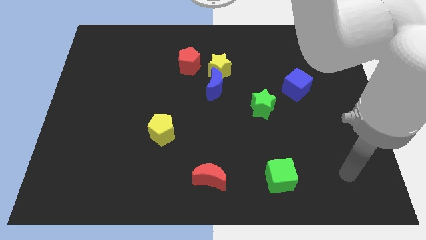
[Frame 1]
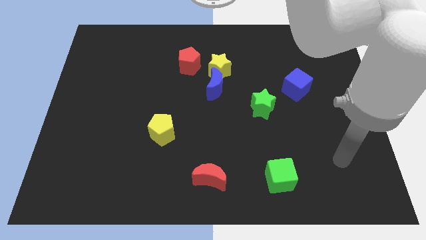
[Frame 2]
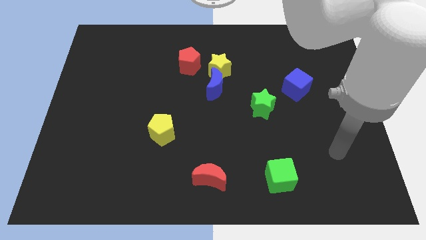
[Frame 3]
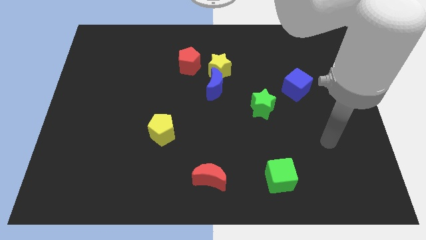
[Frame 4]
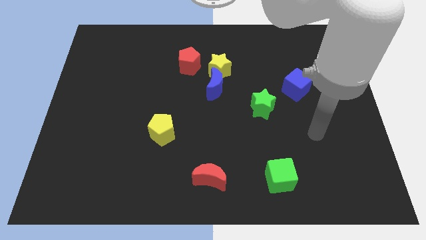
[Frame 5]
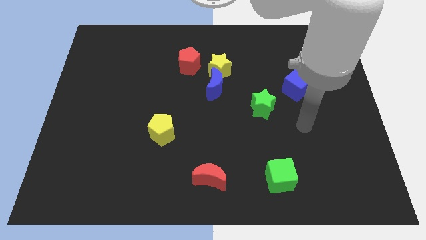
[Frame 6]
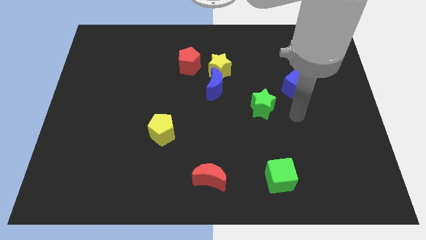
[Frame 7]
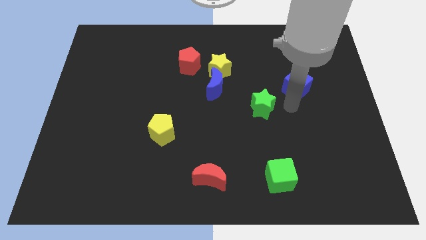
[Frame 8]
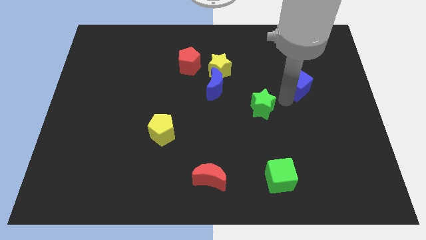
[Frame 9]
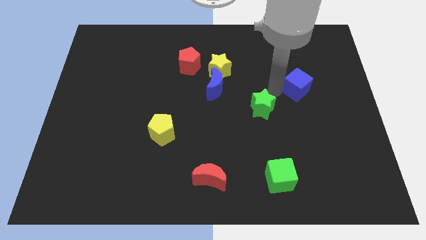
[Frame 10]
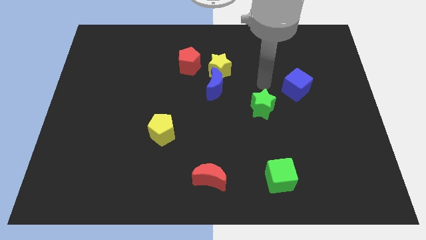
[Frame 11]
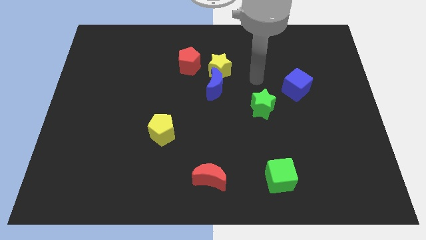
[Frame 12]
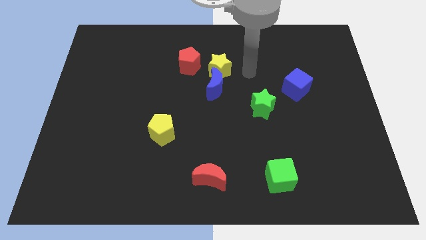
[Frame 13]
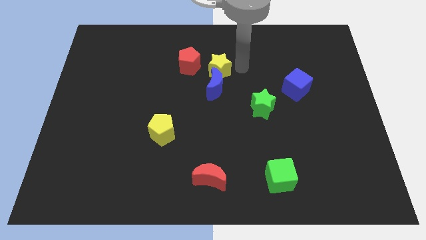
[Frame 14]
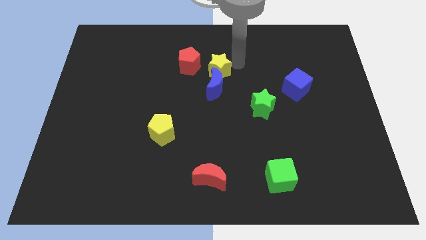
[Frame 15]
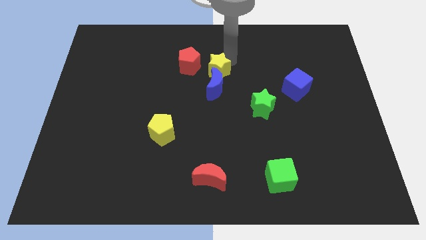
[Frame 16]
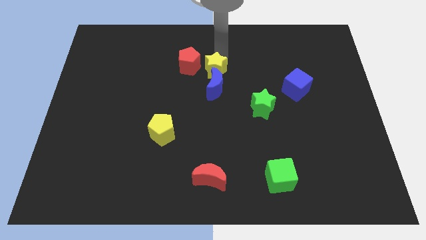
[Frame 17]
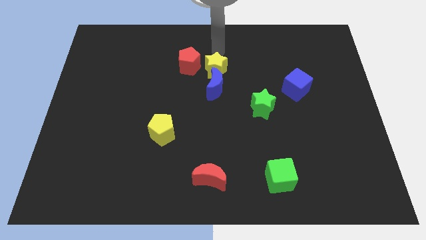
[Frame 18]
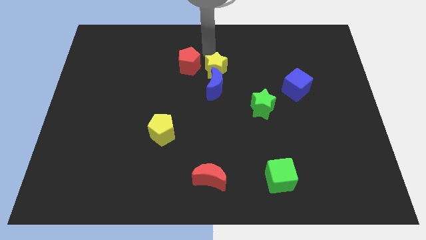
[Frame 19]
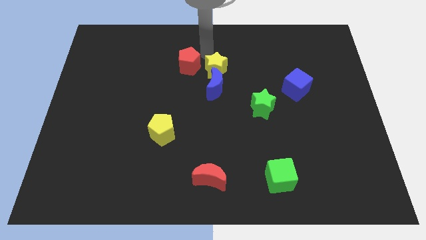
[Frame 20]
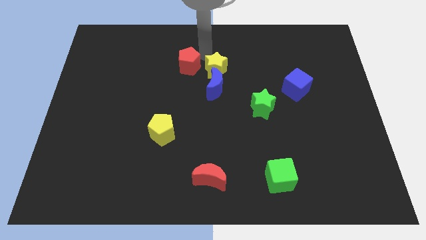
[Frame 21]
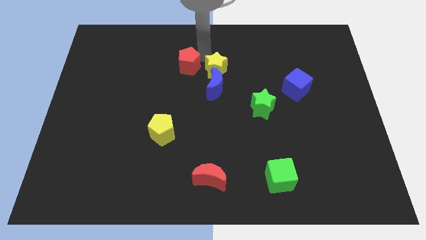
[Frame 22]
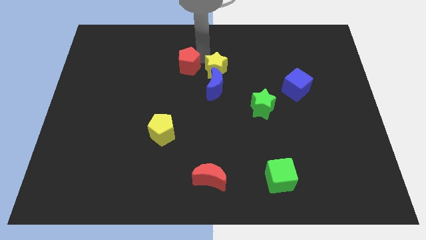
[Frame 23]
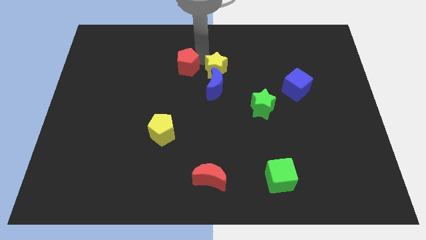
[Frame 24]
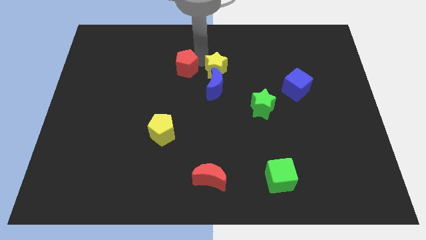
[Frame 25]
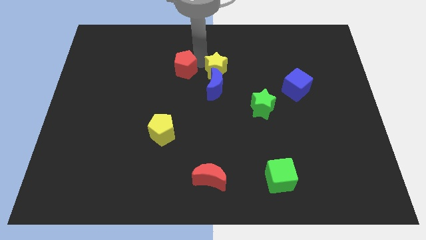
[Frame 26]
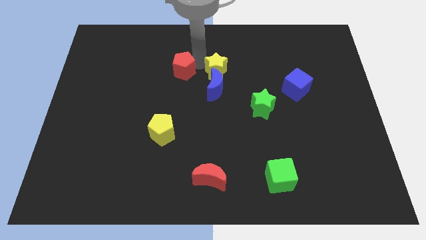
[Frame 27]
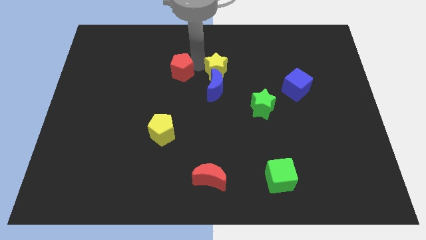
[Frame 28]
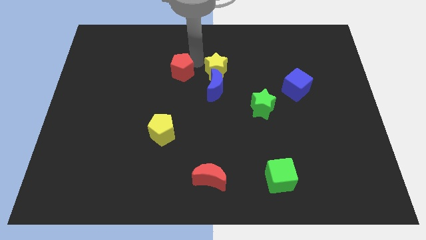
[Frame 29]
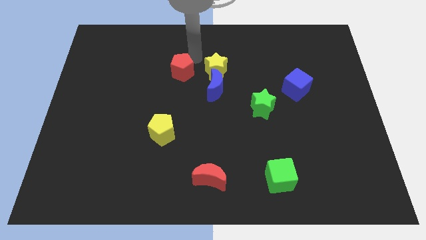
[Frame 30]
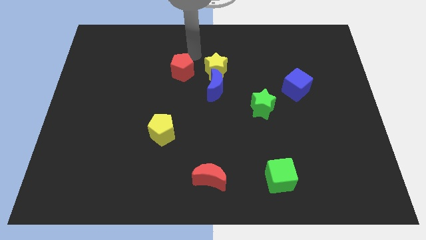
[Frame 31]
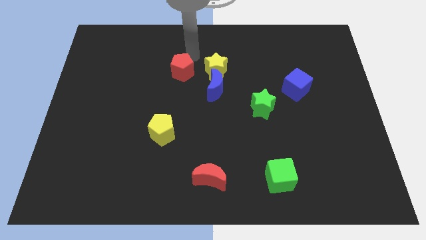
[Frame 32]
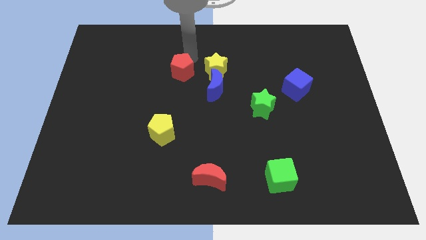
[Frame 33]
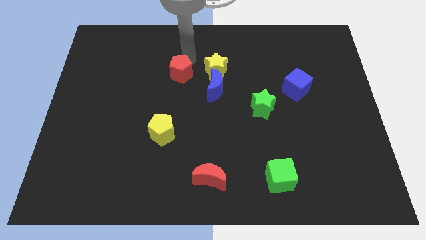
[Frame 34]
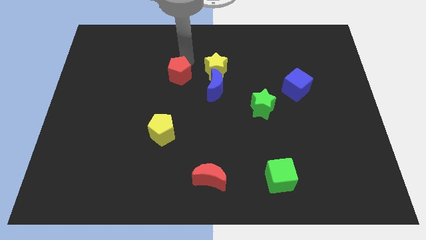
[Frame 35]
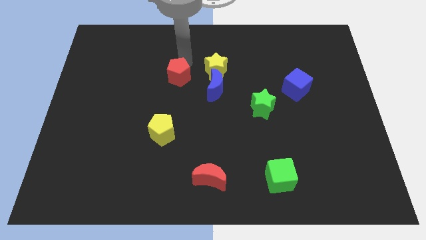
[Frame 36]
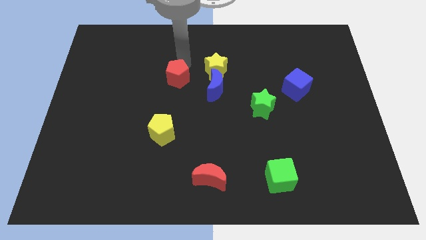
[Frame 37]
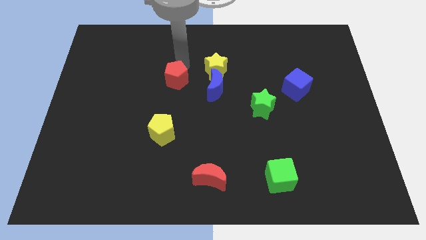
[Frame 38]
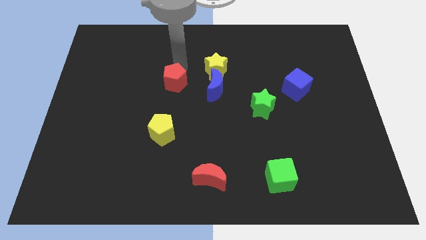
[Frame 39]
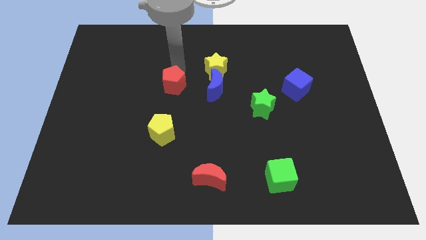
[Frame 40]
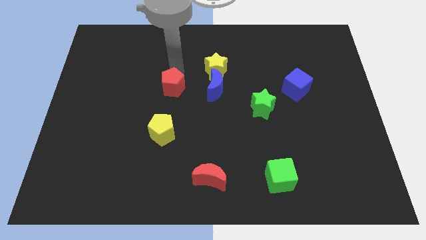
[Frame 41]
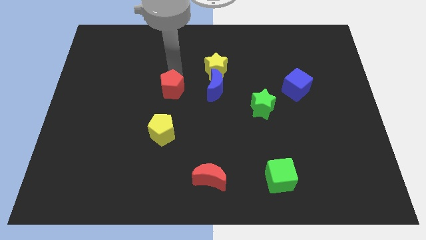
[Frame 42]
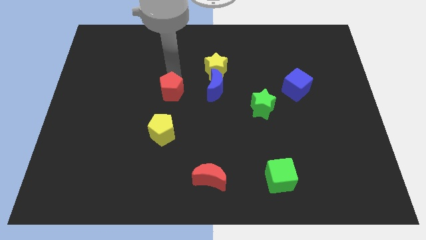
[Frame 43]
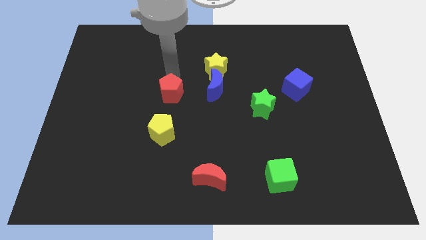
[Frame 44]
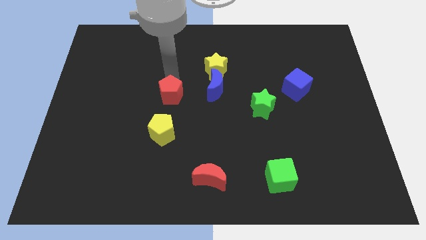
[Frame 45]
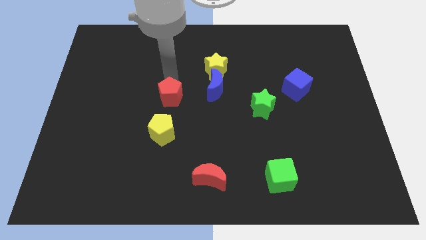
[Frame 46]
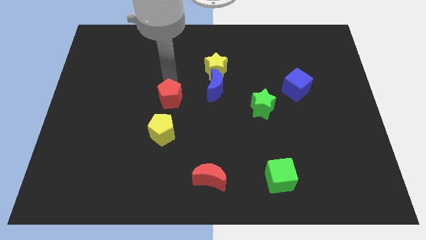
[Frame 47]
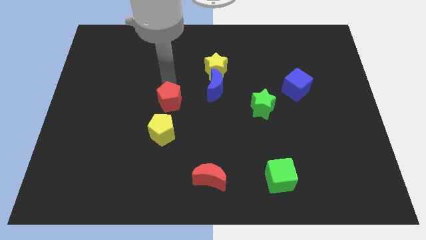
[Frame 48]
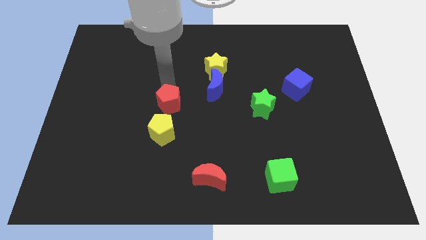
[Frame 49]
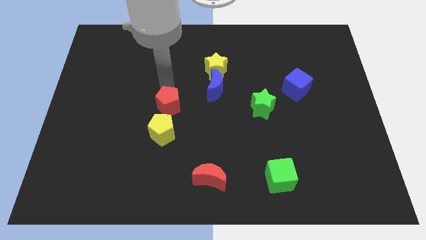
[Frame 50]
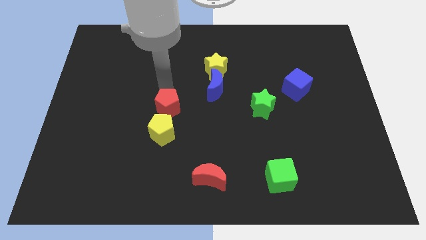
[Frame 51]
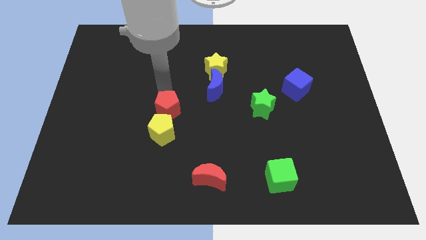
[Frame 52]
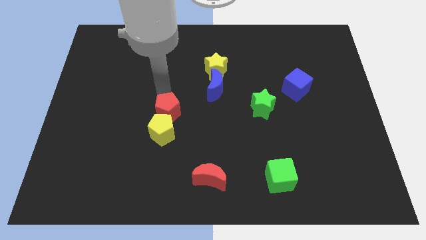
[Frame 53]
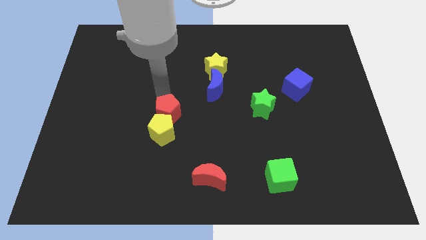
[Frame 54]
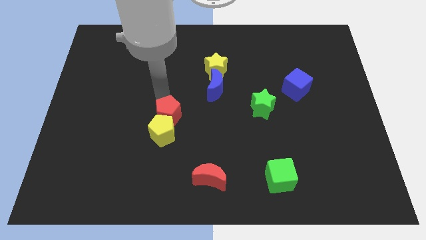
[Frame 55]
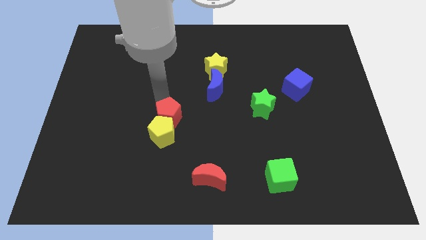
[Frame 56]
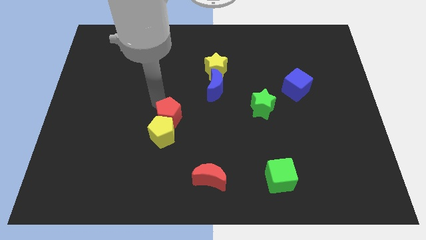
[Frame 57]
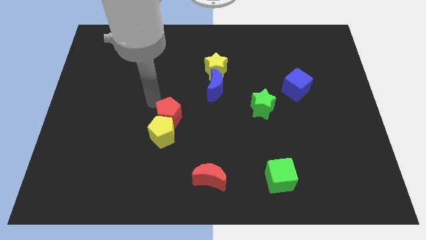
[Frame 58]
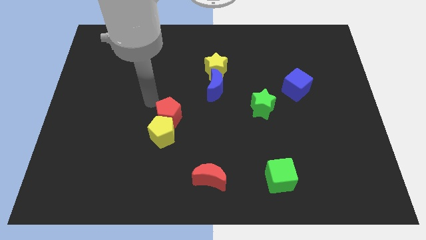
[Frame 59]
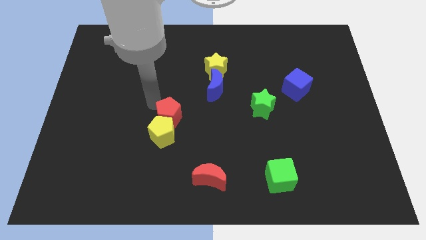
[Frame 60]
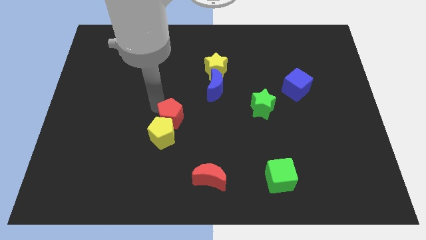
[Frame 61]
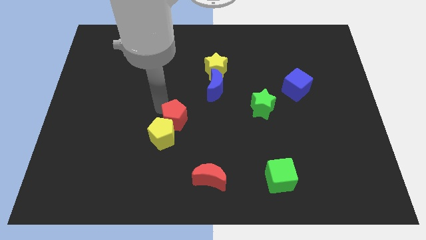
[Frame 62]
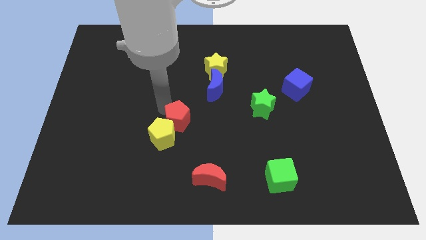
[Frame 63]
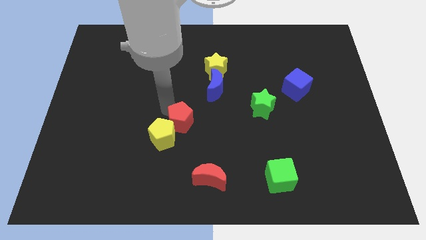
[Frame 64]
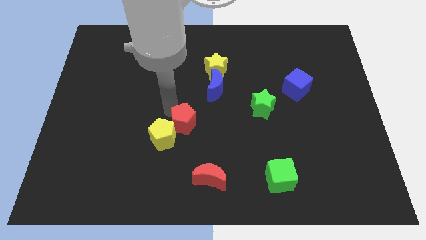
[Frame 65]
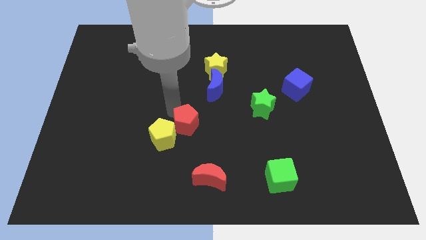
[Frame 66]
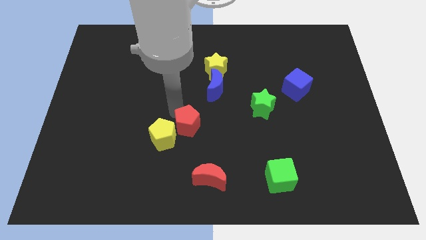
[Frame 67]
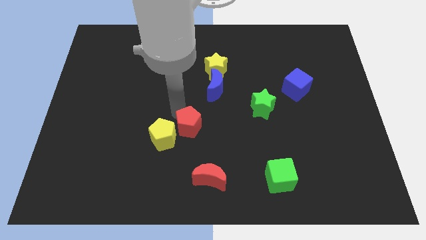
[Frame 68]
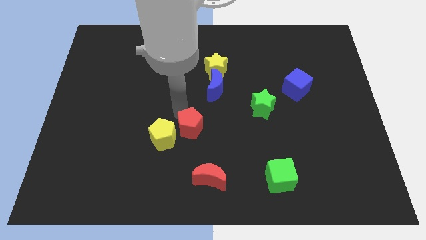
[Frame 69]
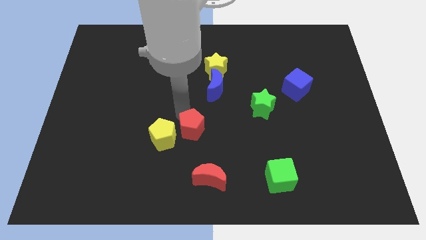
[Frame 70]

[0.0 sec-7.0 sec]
slide the red pentagon down

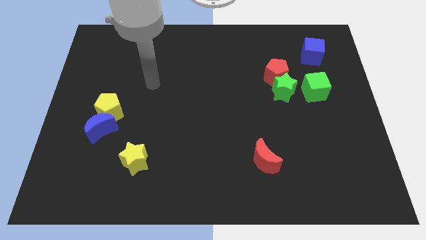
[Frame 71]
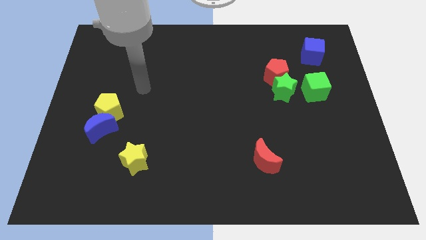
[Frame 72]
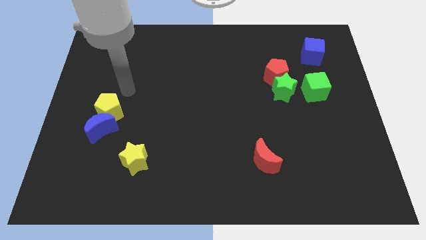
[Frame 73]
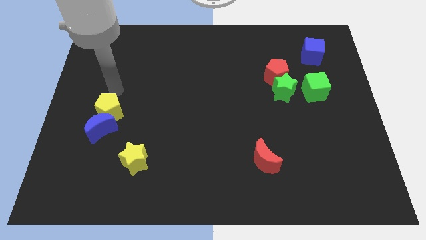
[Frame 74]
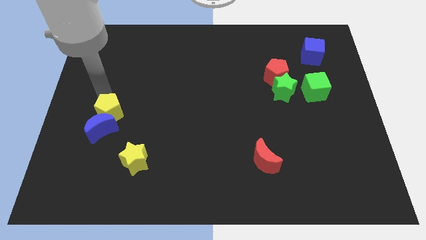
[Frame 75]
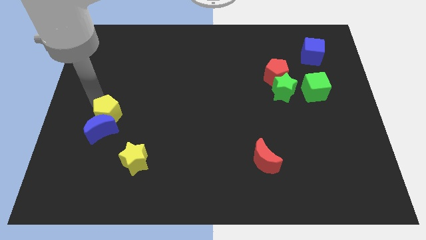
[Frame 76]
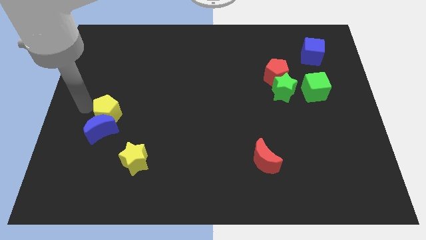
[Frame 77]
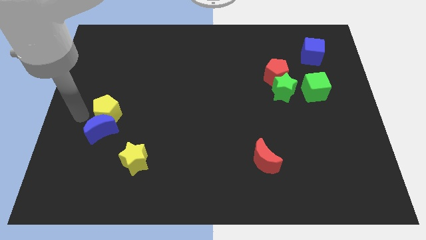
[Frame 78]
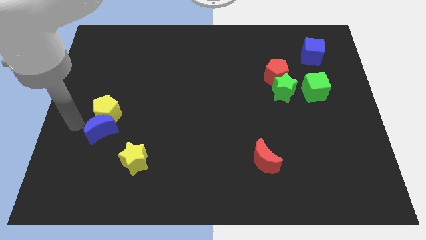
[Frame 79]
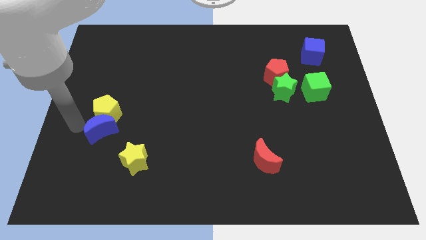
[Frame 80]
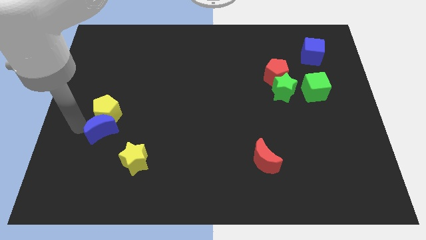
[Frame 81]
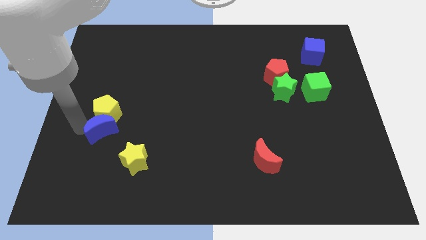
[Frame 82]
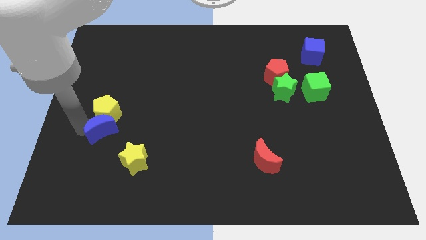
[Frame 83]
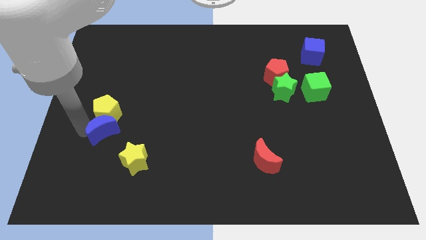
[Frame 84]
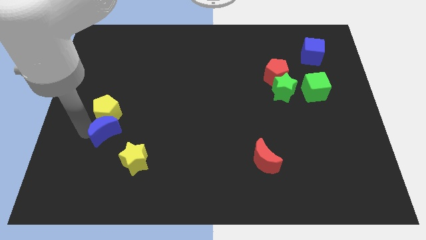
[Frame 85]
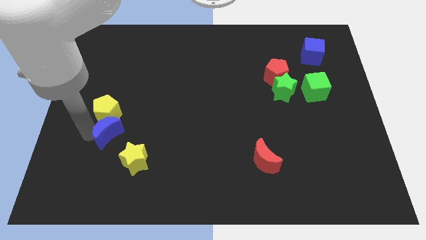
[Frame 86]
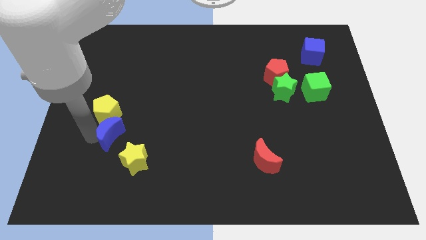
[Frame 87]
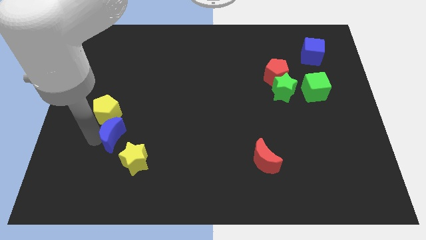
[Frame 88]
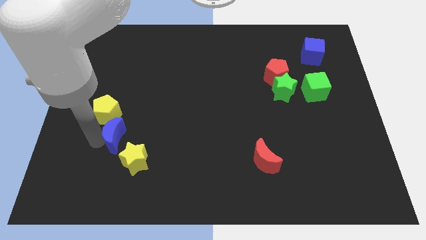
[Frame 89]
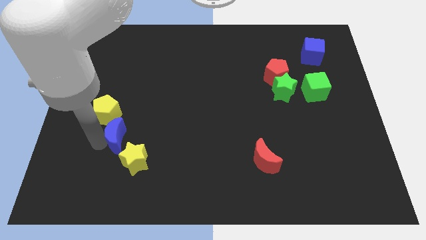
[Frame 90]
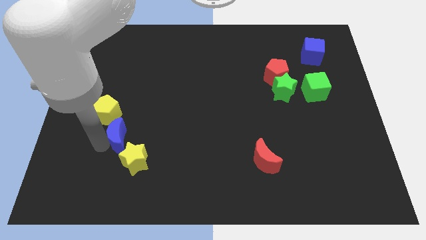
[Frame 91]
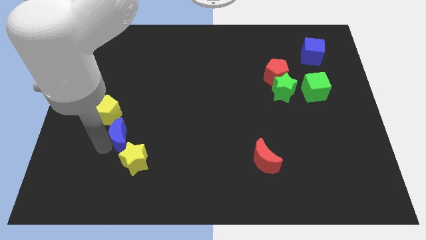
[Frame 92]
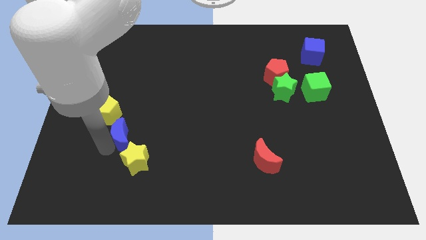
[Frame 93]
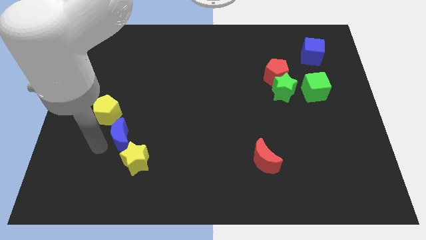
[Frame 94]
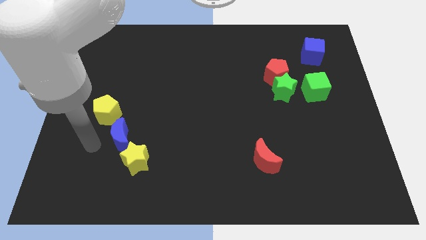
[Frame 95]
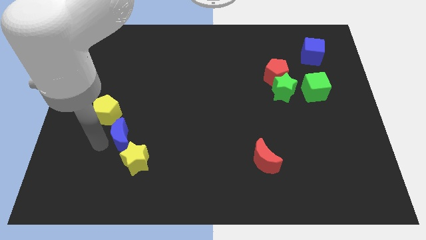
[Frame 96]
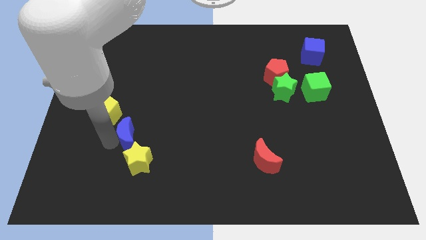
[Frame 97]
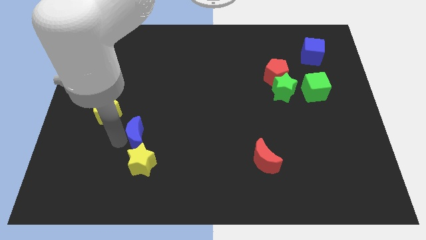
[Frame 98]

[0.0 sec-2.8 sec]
move the blue moon a little to the right
